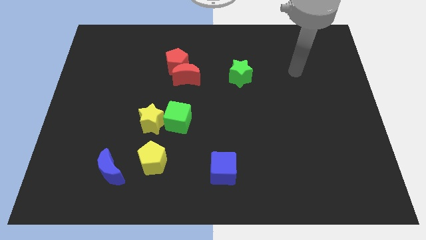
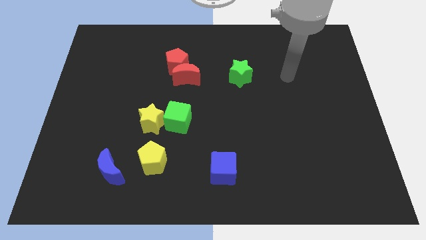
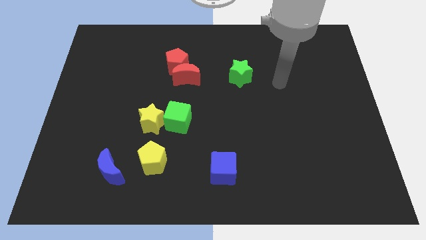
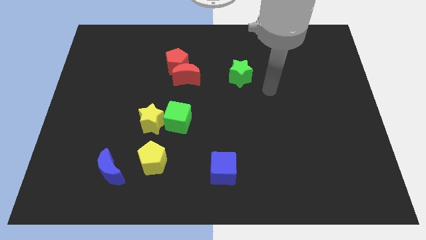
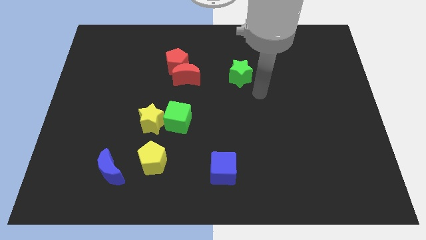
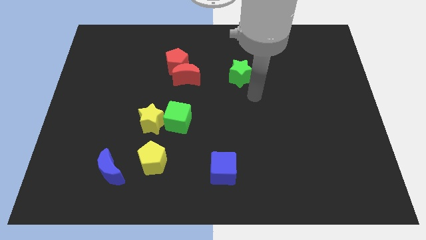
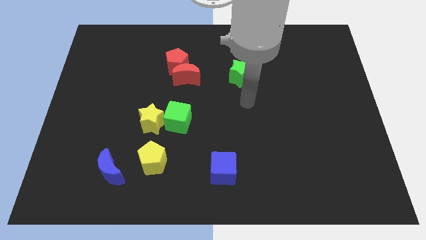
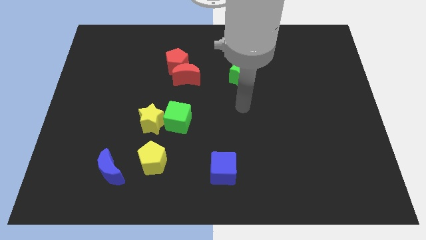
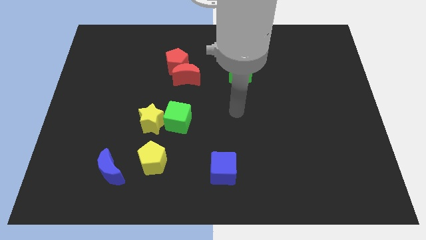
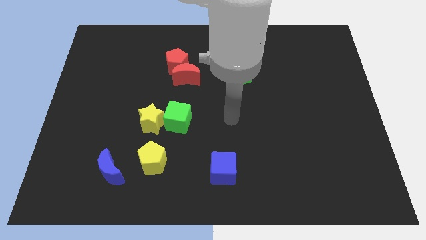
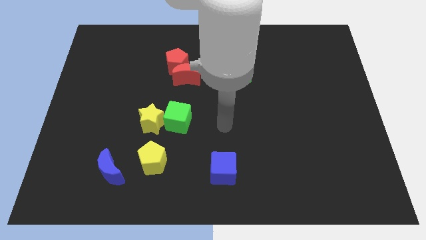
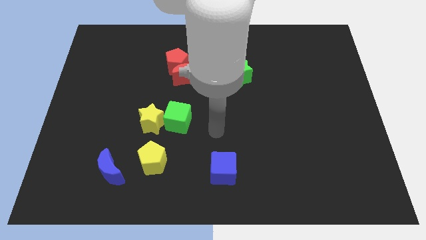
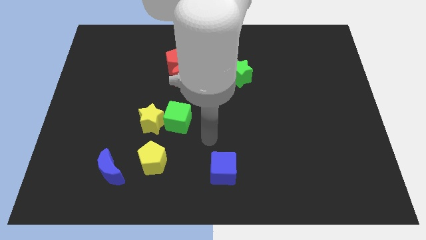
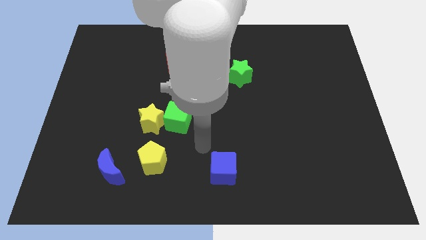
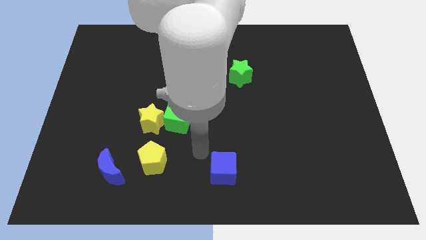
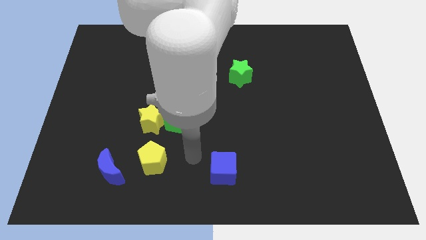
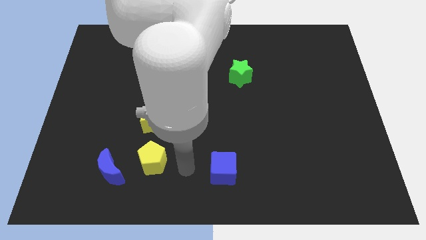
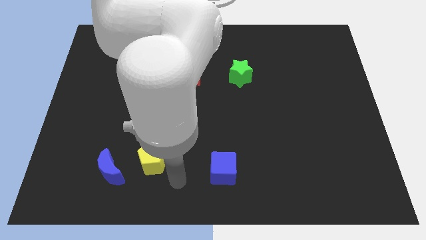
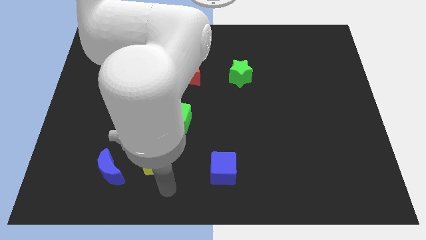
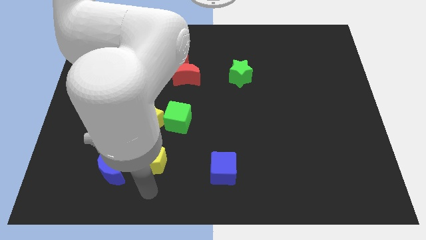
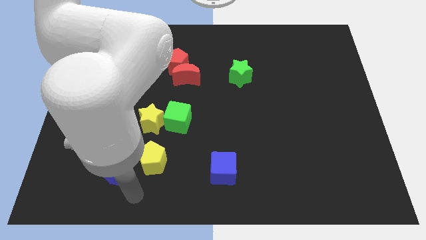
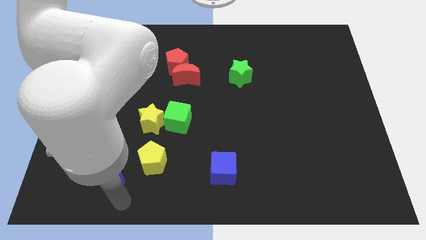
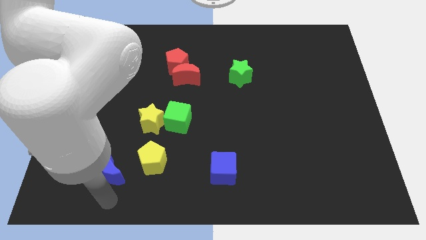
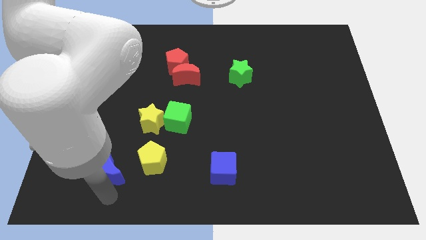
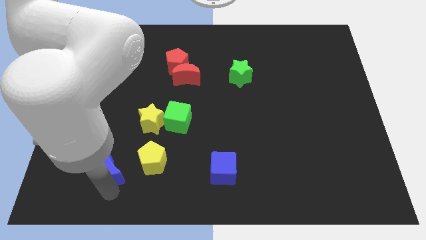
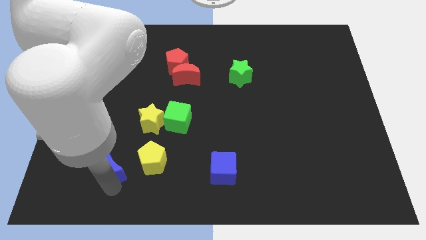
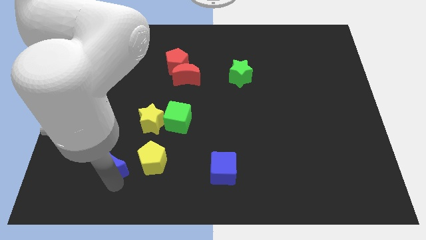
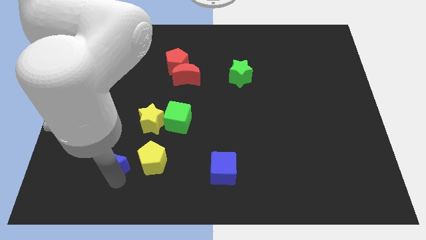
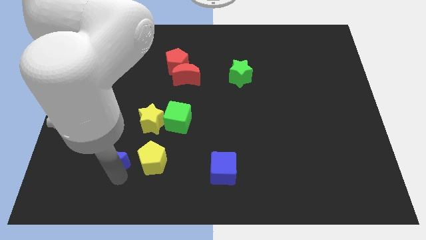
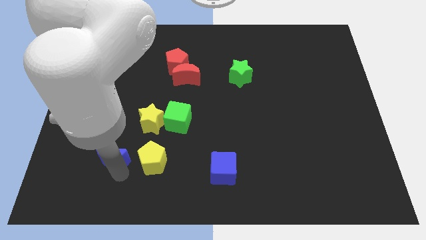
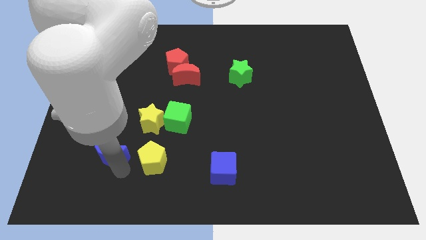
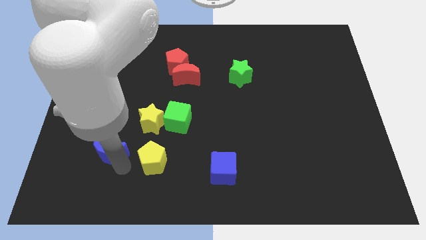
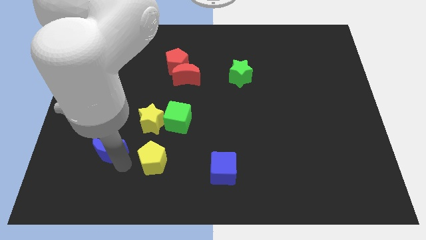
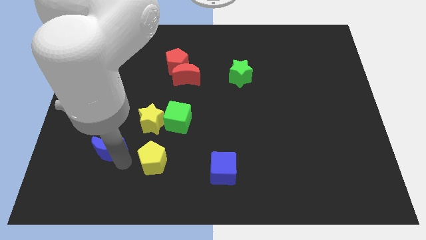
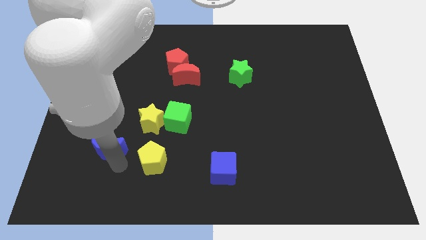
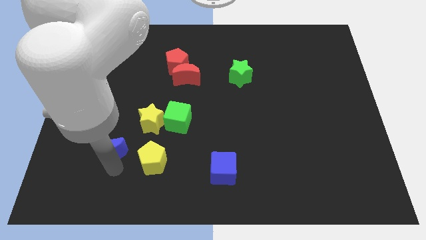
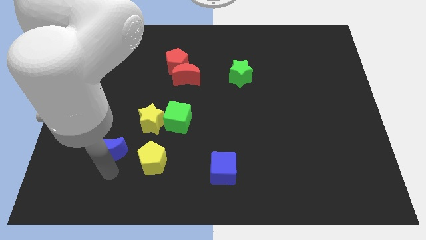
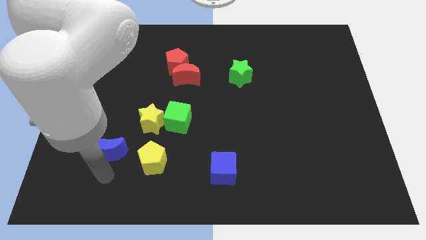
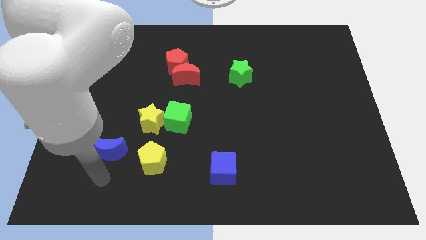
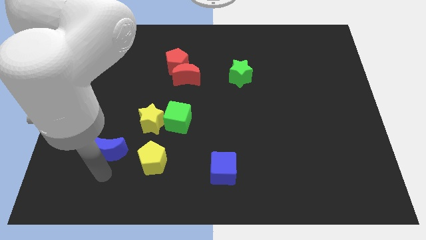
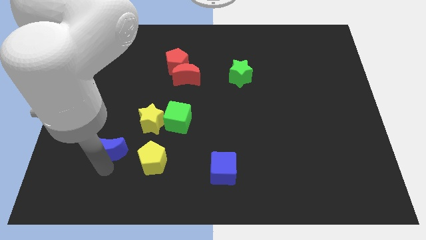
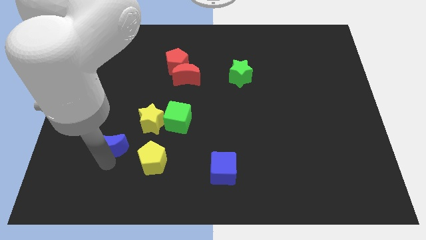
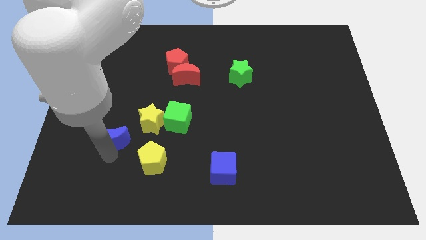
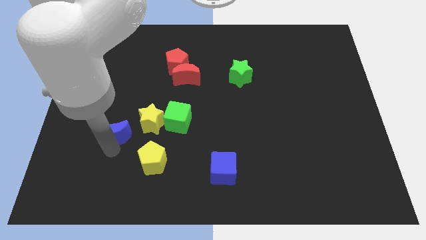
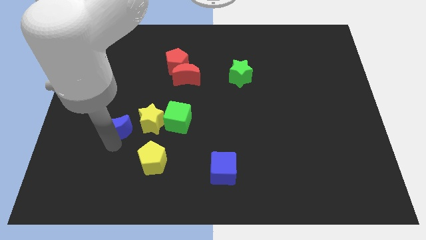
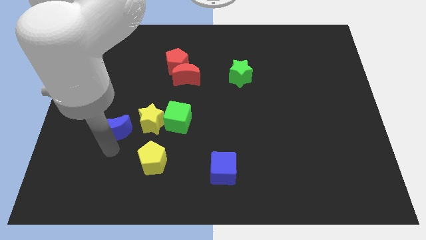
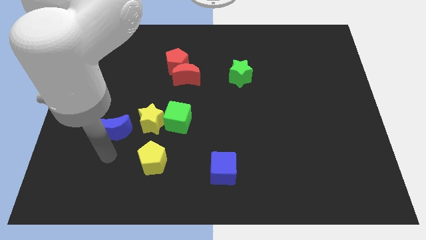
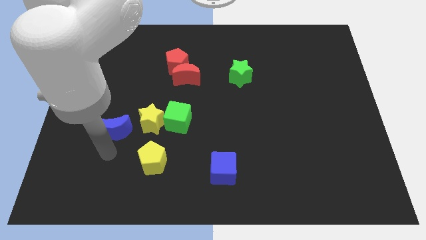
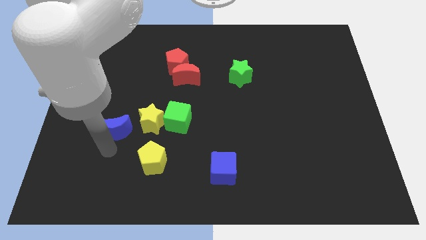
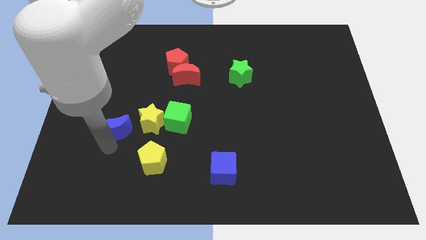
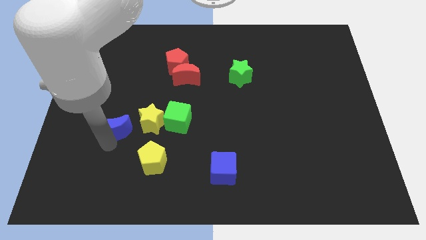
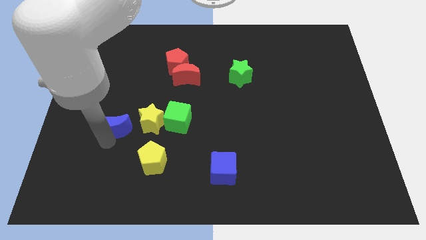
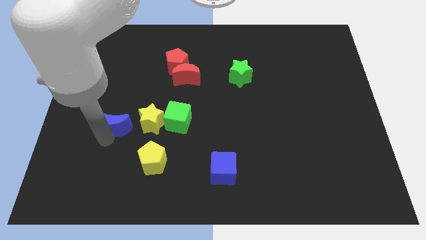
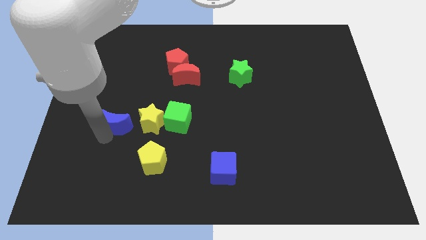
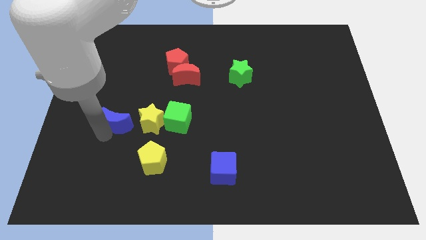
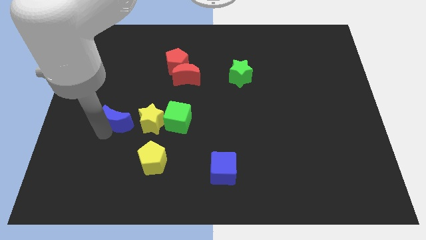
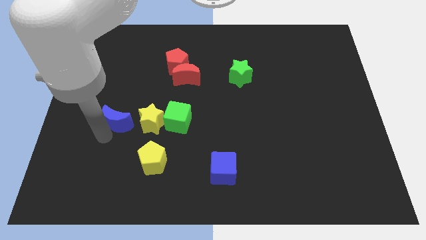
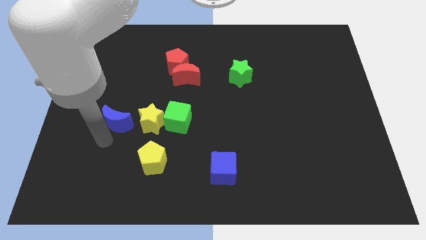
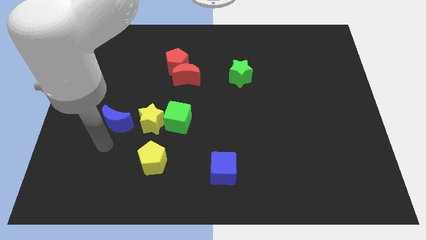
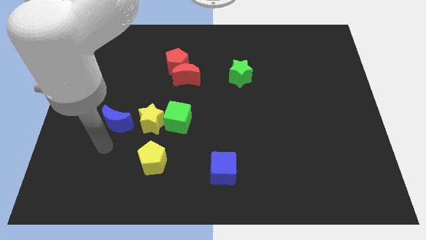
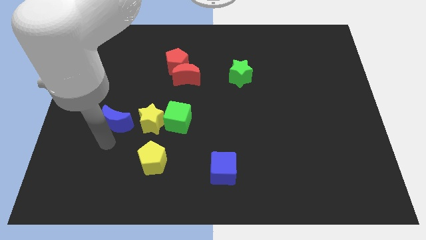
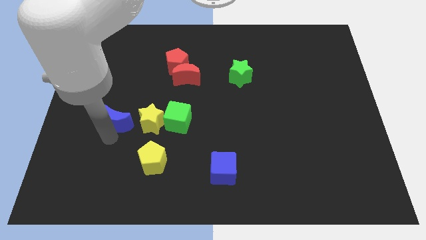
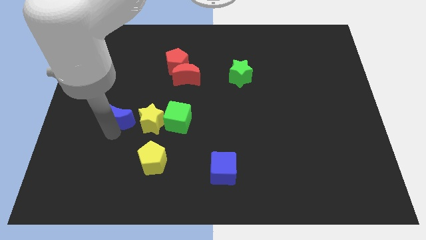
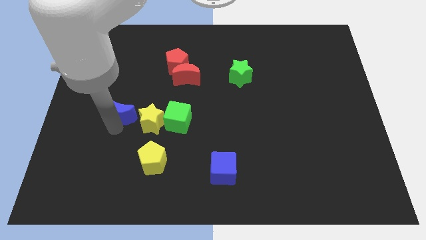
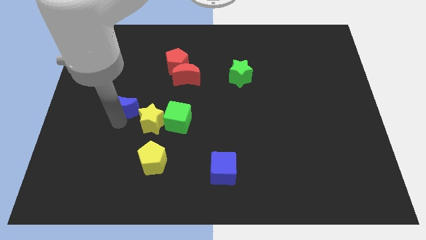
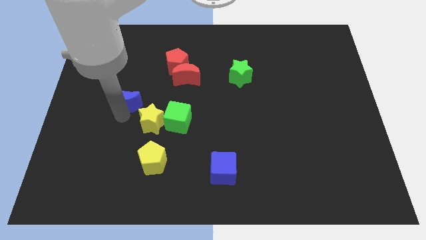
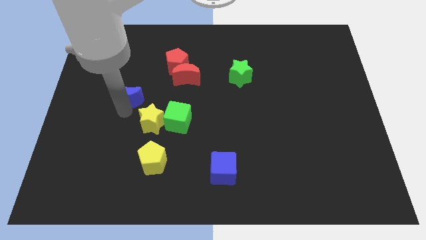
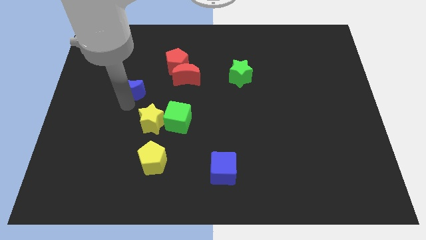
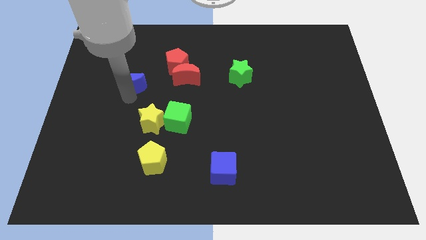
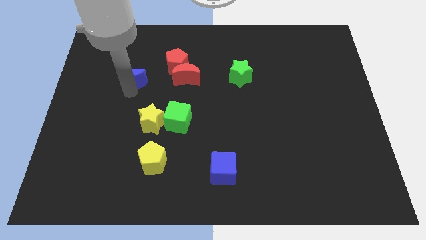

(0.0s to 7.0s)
push the blue moon left of the red pentagon
